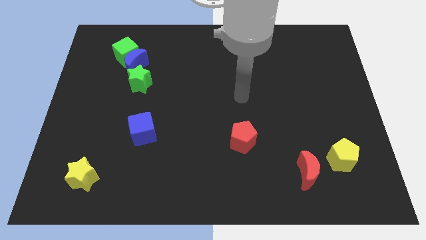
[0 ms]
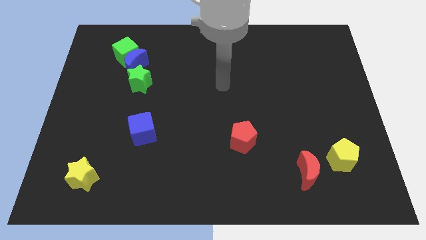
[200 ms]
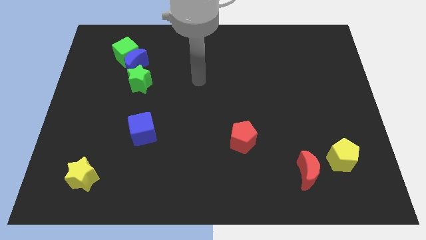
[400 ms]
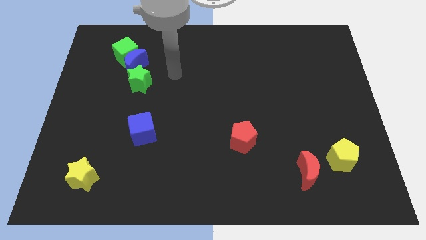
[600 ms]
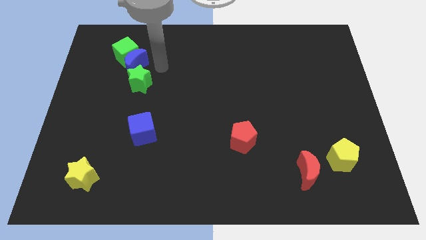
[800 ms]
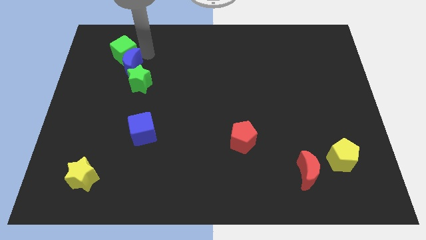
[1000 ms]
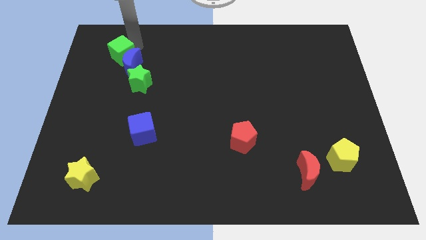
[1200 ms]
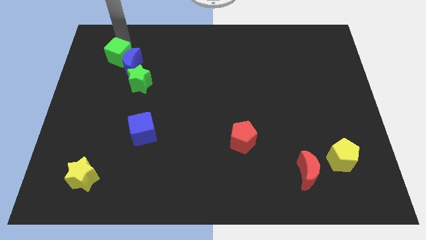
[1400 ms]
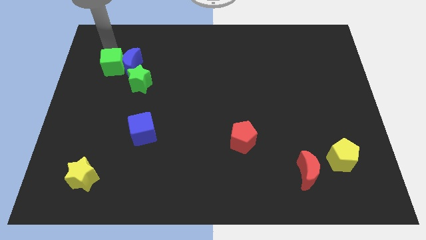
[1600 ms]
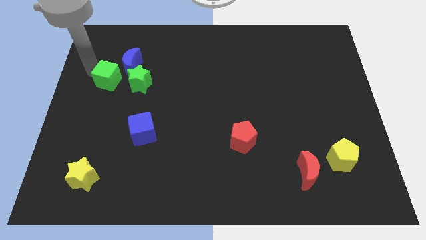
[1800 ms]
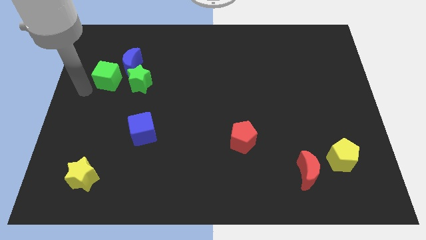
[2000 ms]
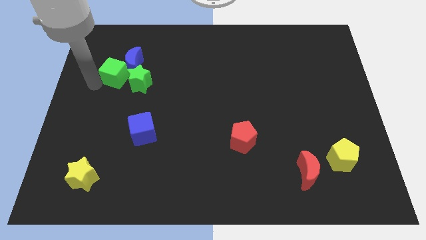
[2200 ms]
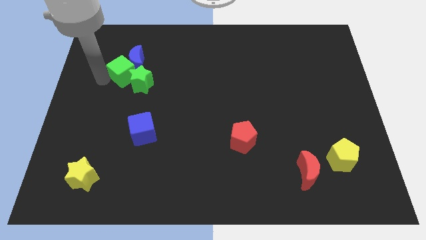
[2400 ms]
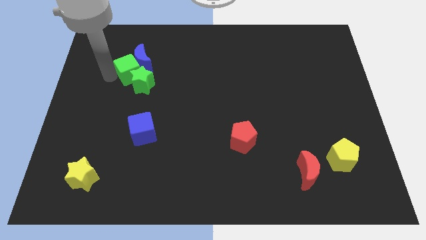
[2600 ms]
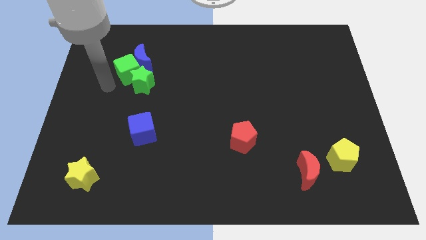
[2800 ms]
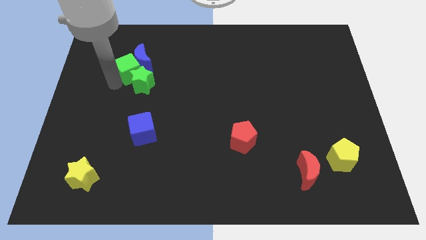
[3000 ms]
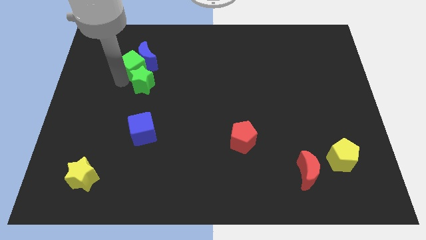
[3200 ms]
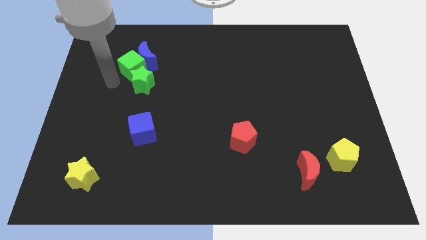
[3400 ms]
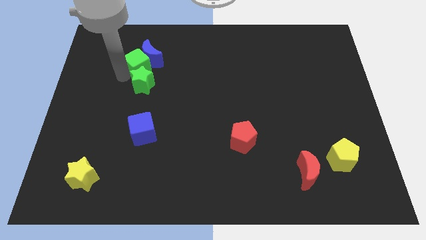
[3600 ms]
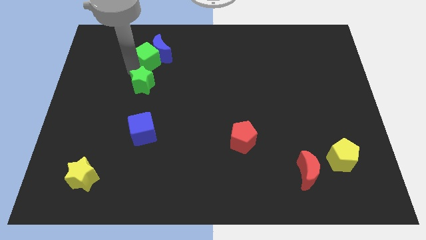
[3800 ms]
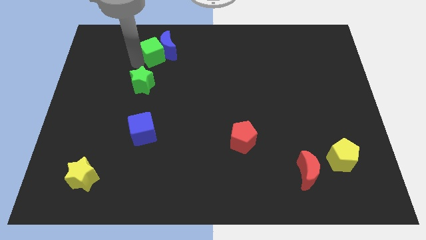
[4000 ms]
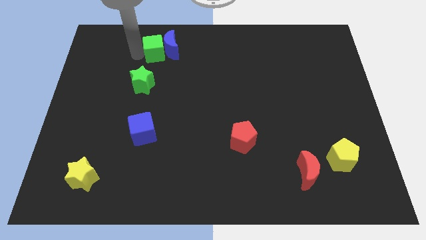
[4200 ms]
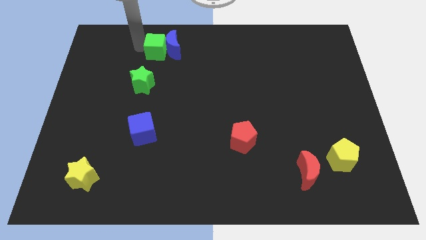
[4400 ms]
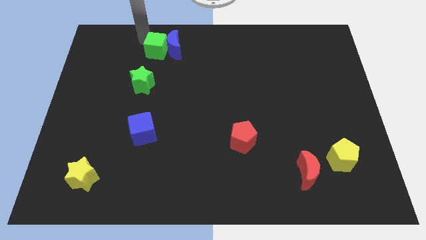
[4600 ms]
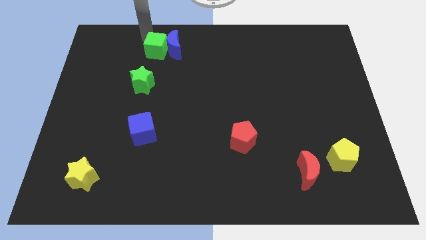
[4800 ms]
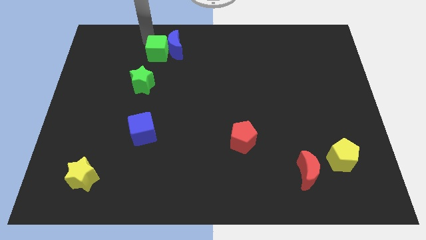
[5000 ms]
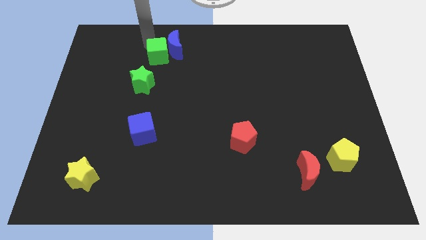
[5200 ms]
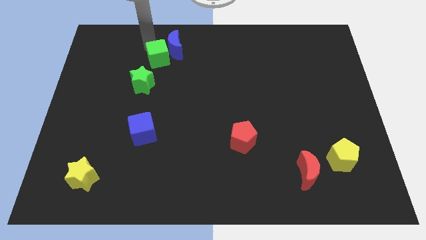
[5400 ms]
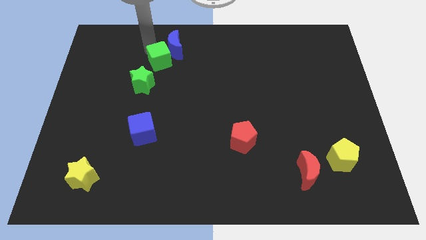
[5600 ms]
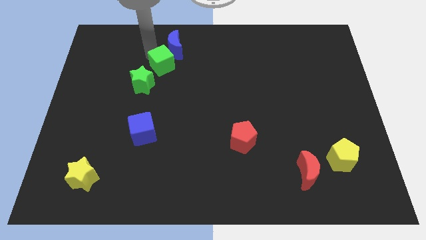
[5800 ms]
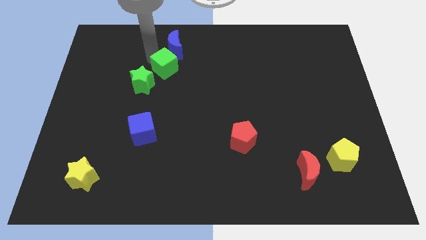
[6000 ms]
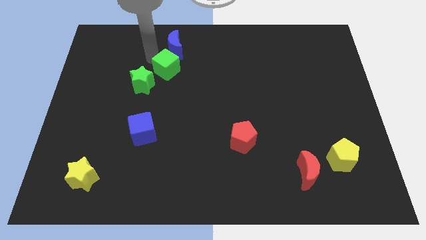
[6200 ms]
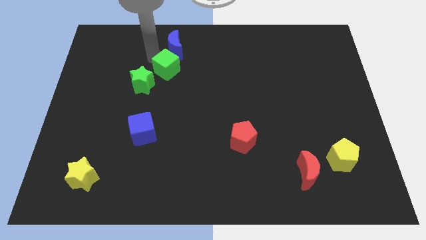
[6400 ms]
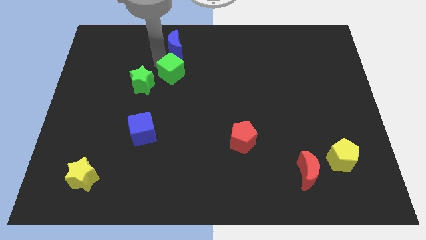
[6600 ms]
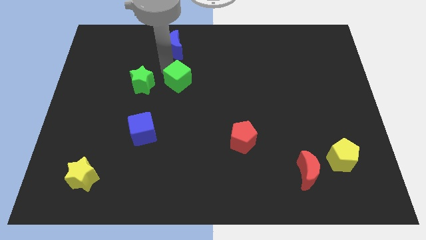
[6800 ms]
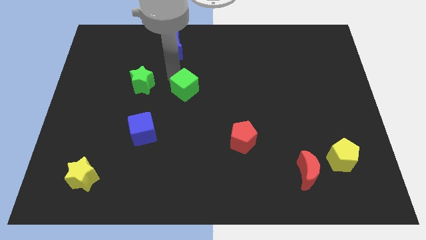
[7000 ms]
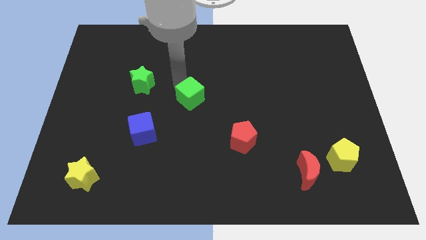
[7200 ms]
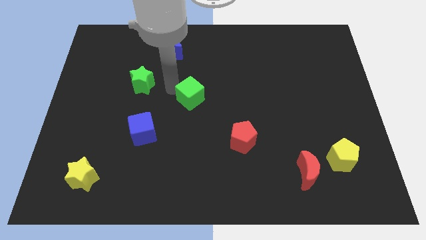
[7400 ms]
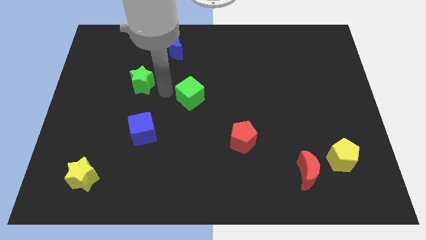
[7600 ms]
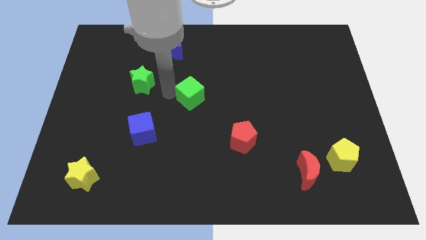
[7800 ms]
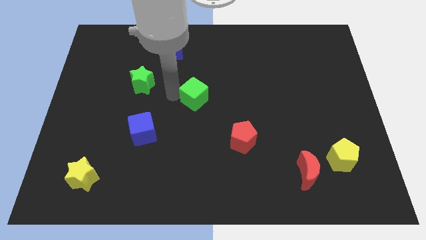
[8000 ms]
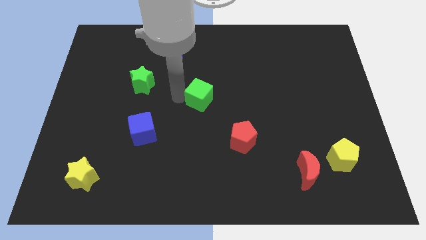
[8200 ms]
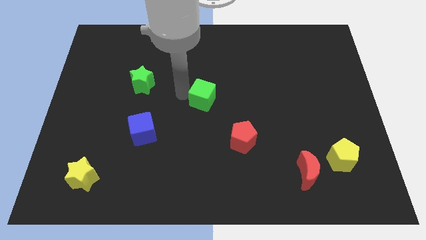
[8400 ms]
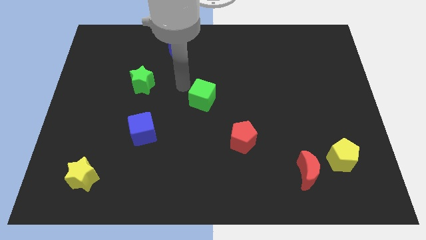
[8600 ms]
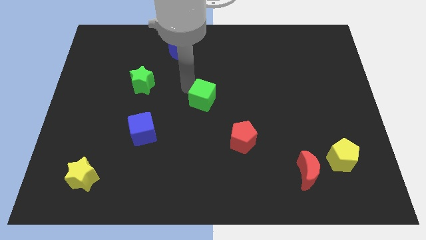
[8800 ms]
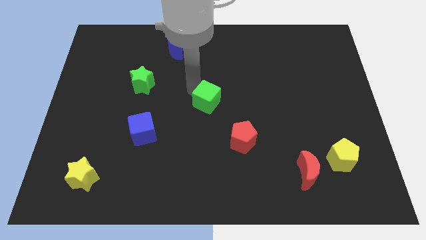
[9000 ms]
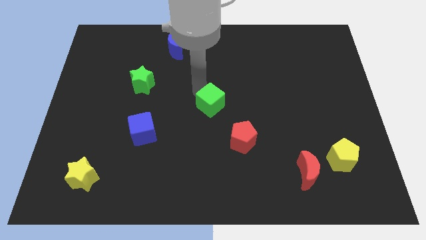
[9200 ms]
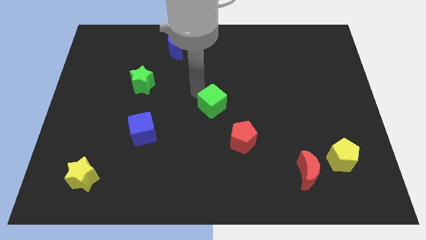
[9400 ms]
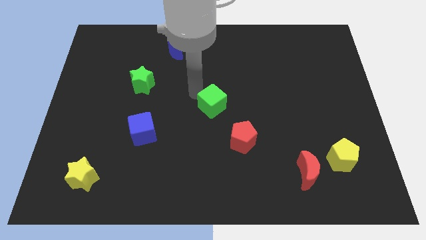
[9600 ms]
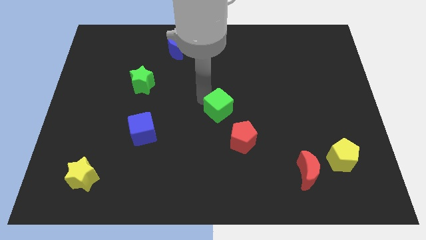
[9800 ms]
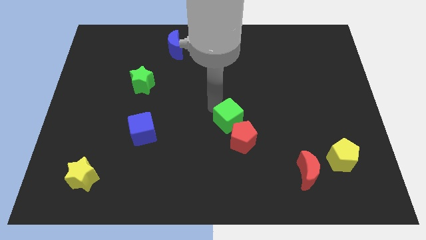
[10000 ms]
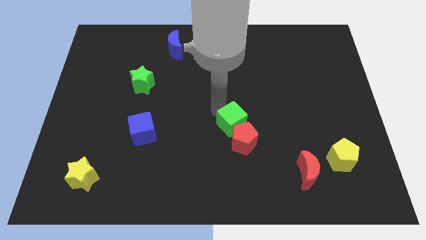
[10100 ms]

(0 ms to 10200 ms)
slide the green cube next to the red pentagon

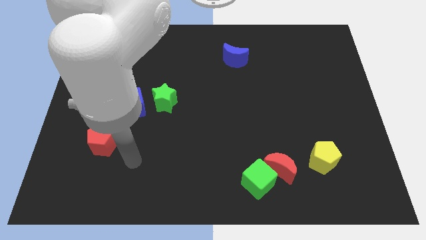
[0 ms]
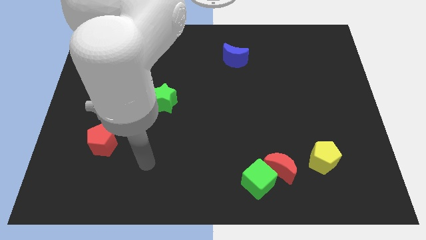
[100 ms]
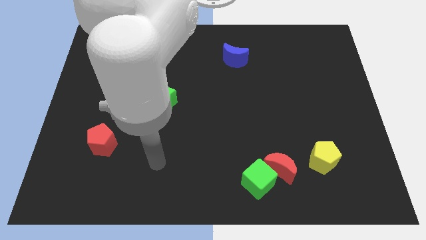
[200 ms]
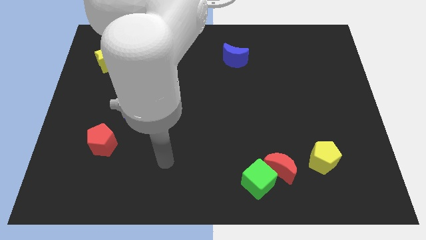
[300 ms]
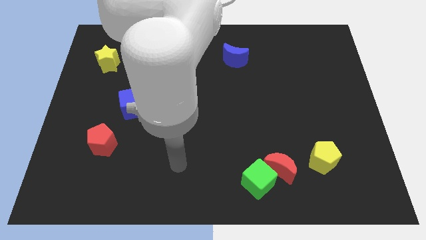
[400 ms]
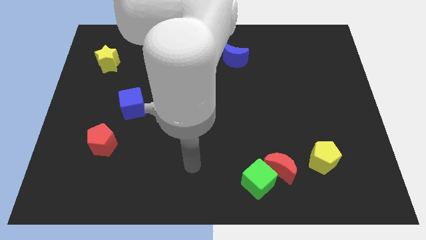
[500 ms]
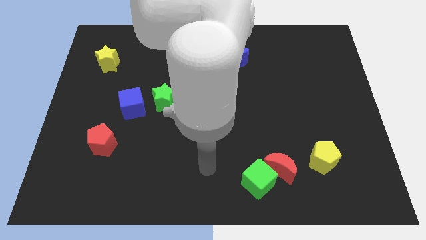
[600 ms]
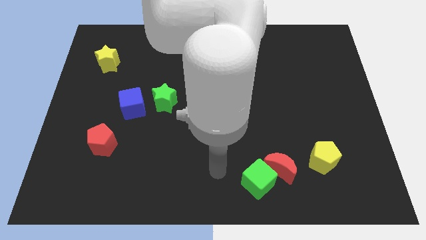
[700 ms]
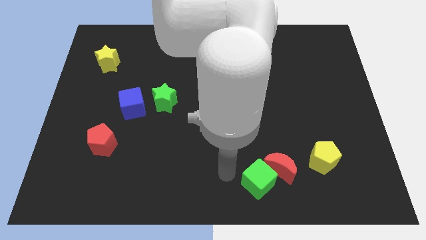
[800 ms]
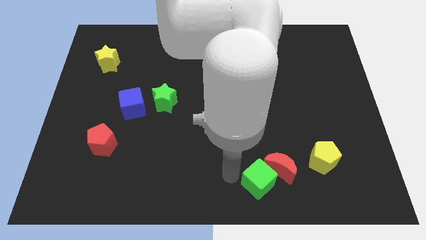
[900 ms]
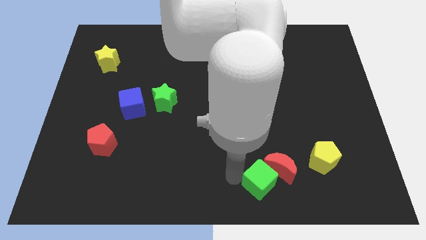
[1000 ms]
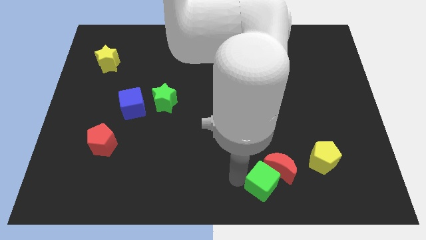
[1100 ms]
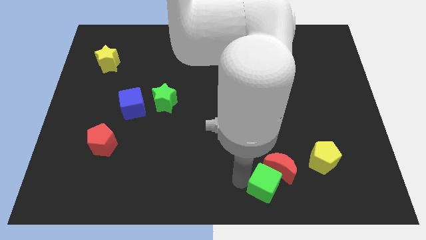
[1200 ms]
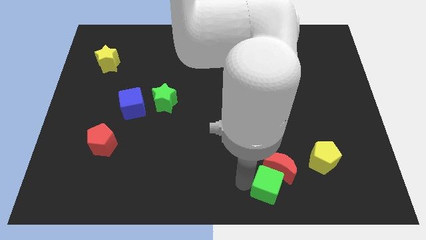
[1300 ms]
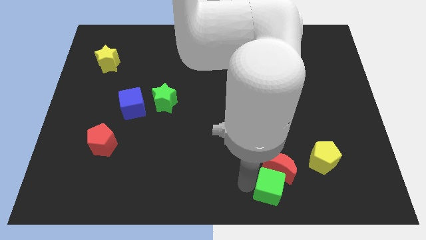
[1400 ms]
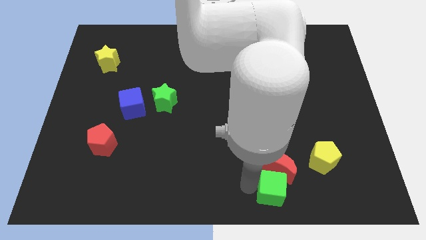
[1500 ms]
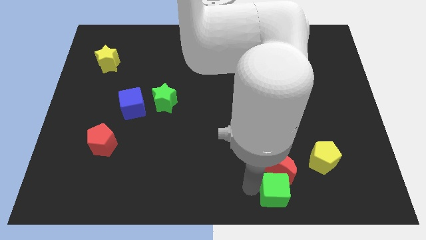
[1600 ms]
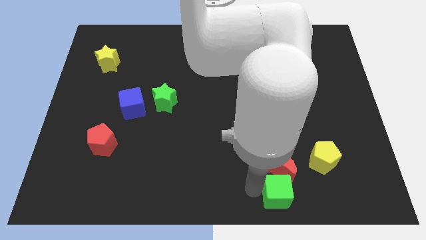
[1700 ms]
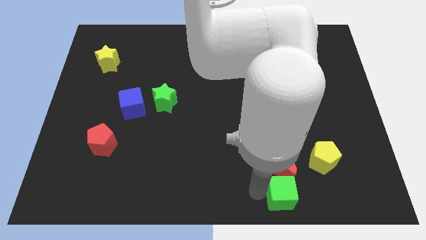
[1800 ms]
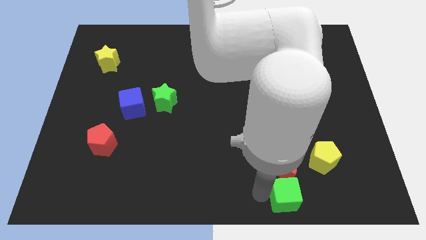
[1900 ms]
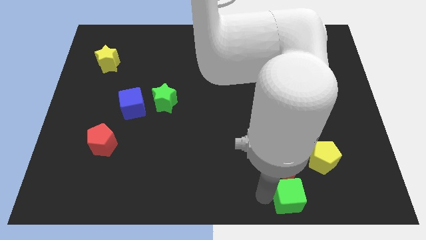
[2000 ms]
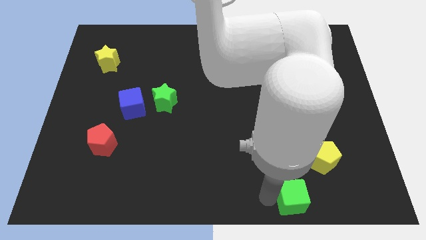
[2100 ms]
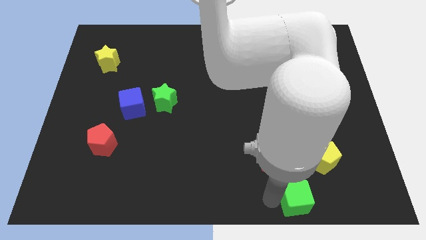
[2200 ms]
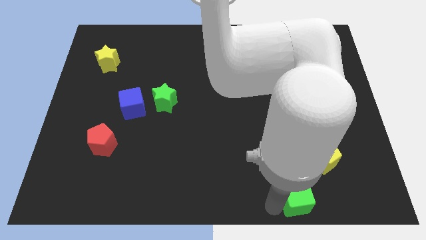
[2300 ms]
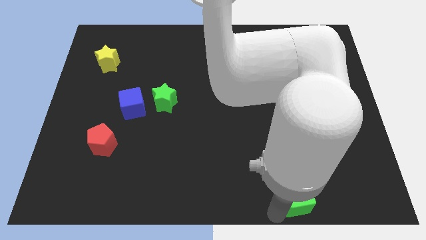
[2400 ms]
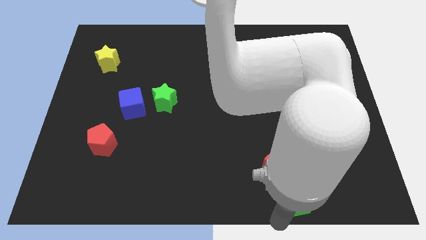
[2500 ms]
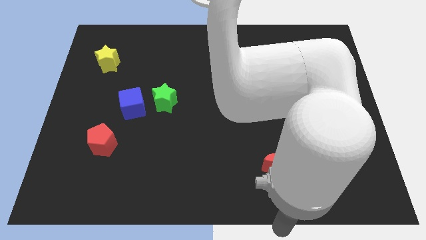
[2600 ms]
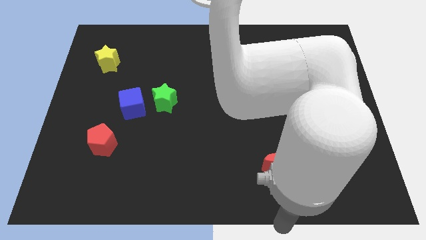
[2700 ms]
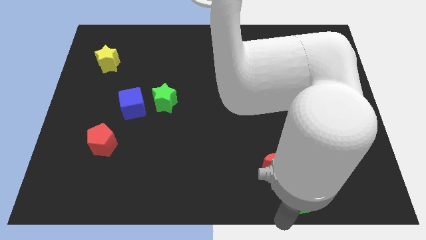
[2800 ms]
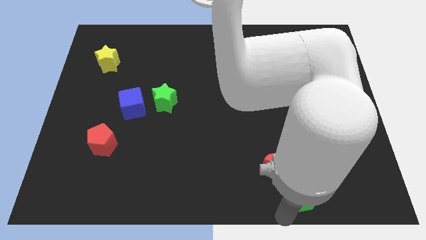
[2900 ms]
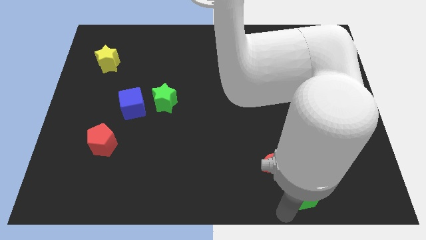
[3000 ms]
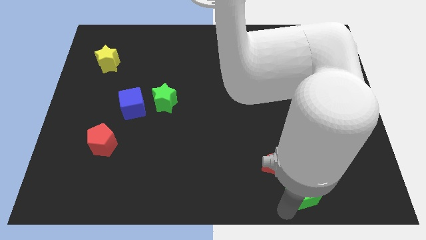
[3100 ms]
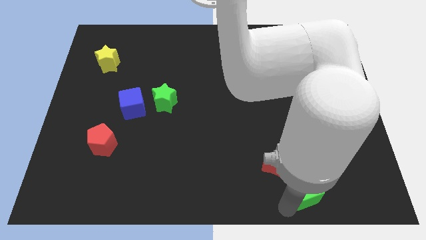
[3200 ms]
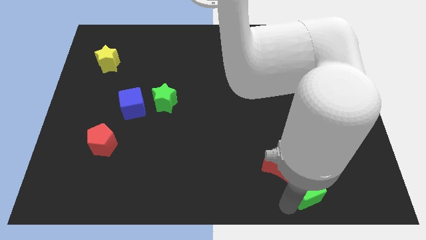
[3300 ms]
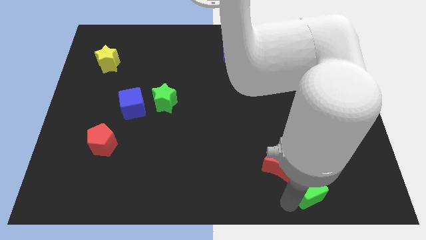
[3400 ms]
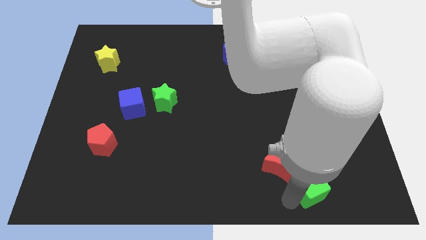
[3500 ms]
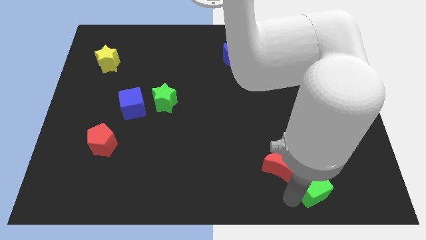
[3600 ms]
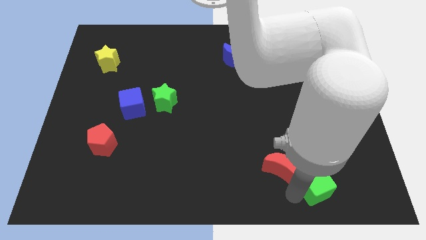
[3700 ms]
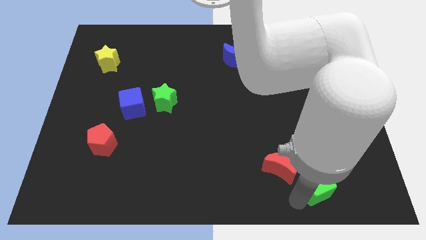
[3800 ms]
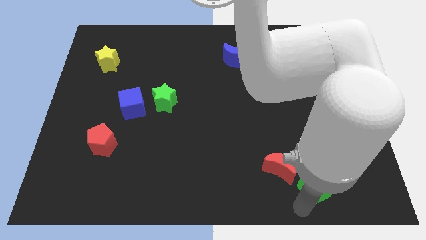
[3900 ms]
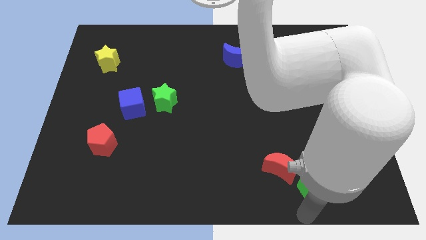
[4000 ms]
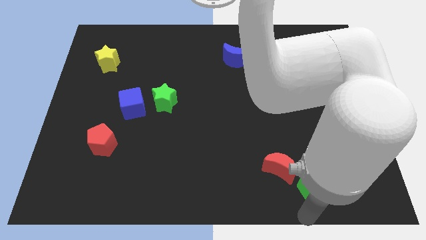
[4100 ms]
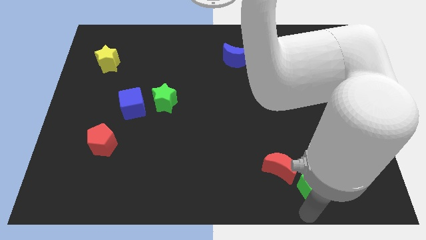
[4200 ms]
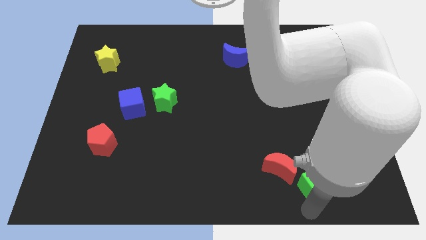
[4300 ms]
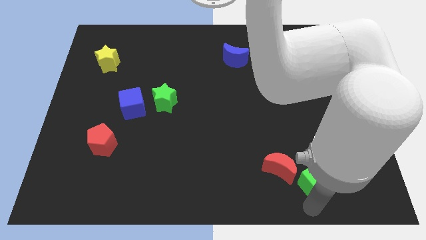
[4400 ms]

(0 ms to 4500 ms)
put the green cube next to the yellow pentagon
